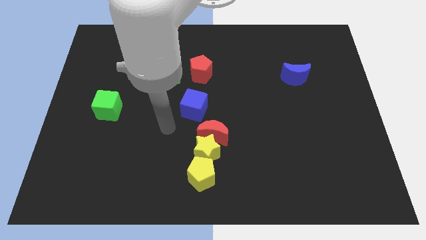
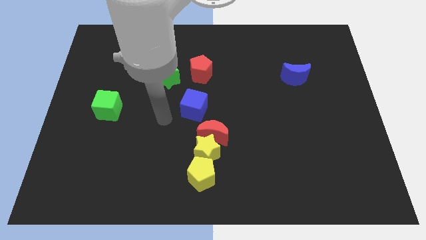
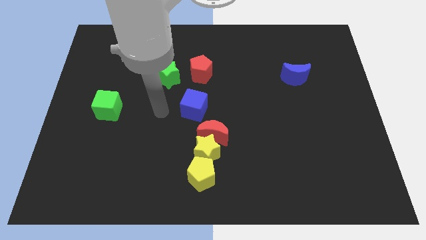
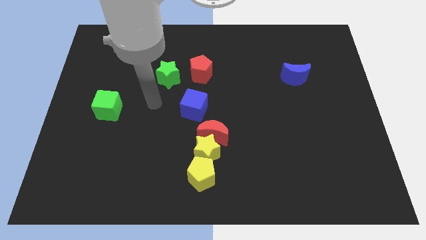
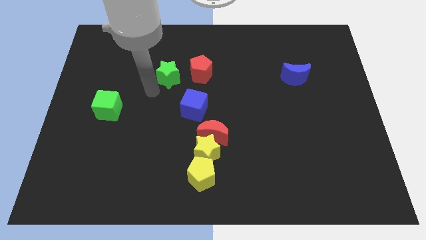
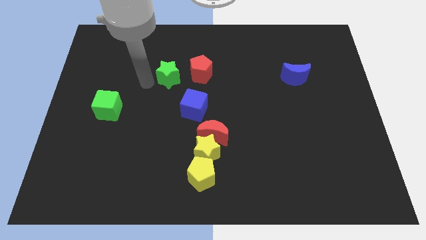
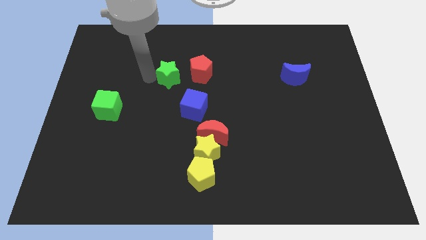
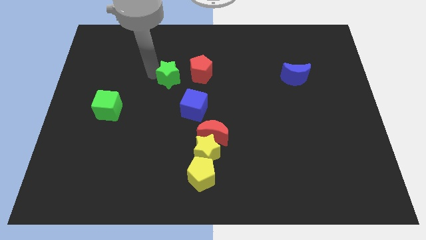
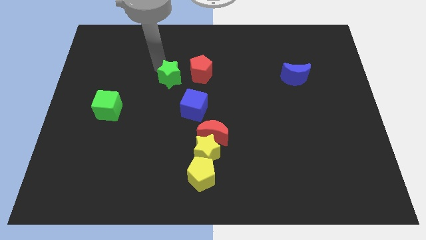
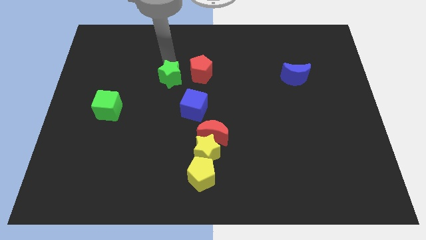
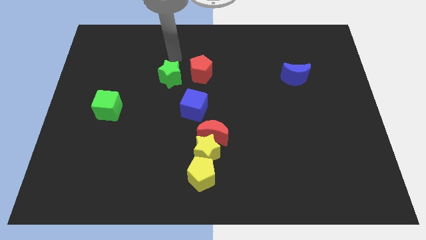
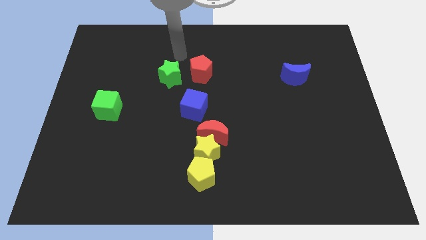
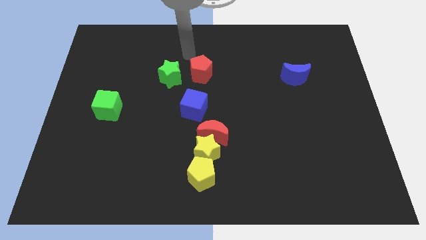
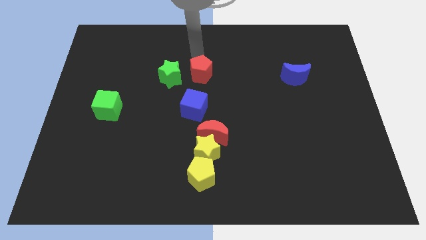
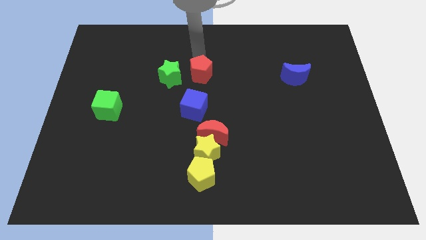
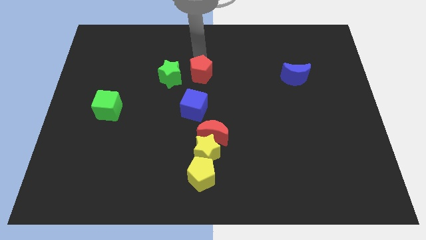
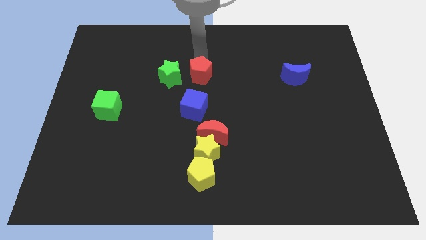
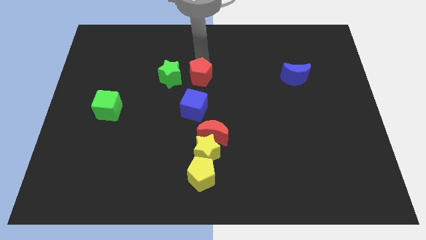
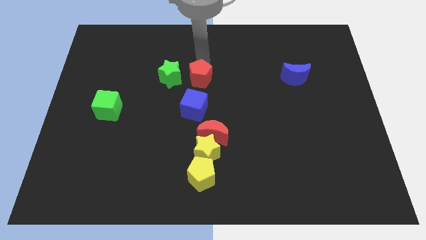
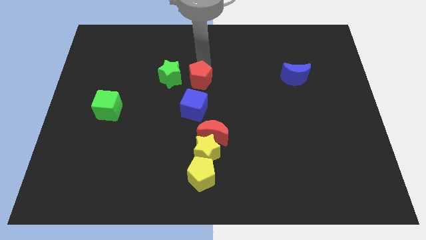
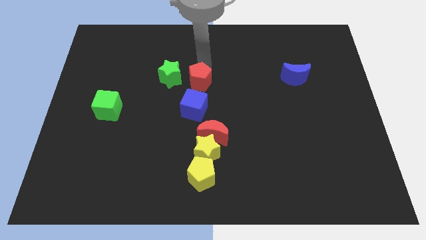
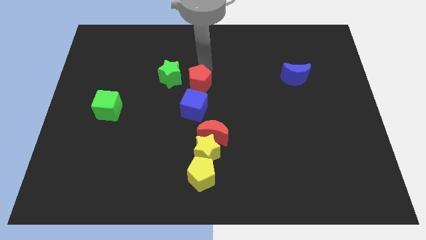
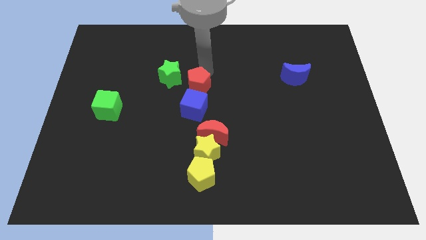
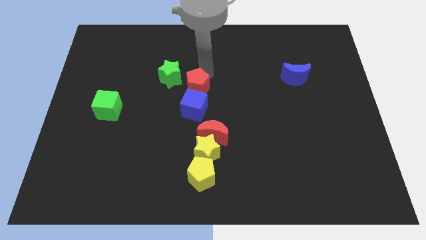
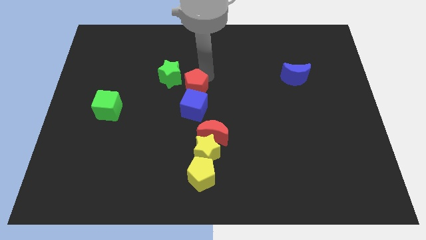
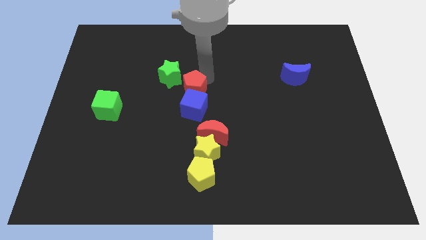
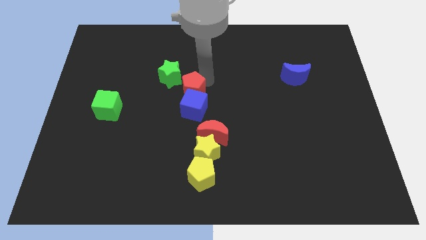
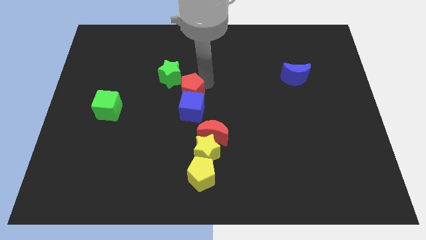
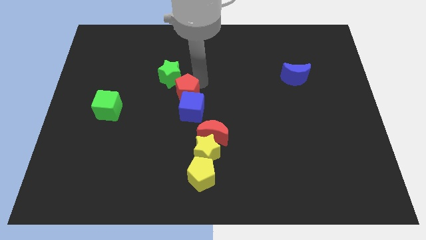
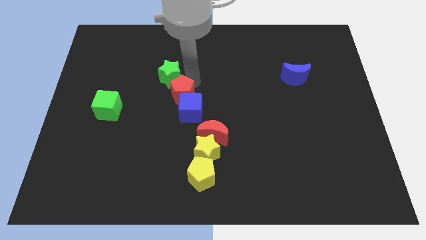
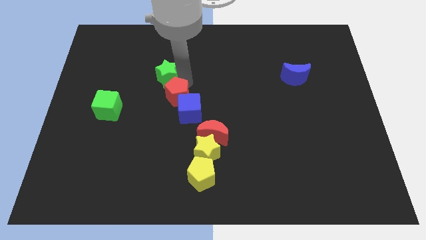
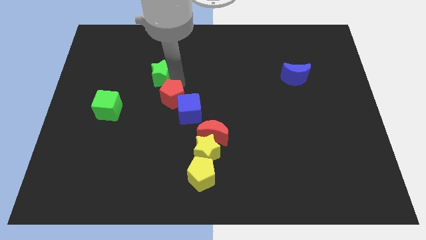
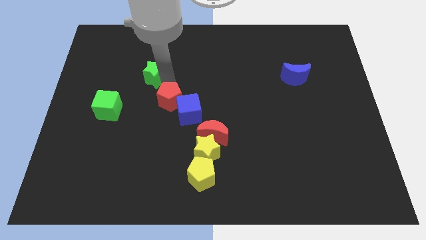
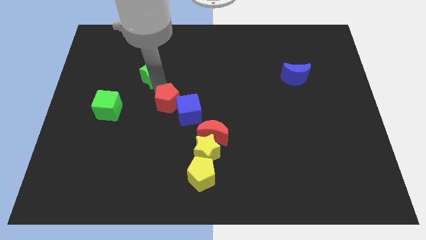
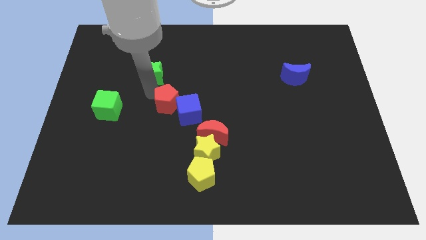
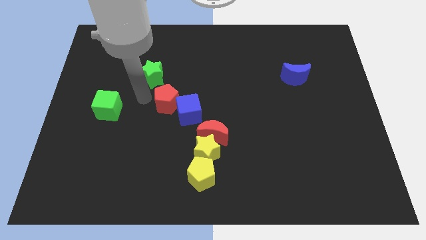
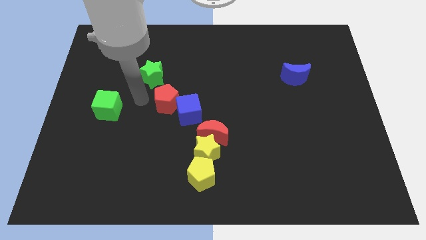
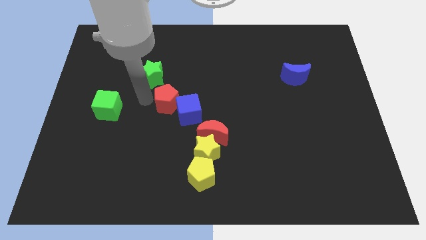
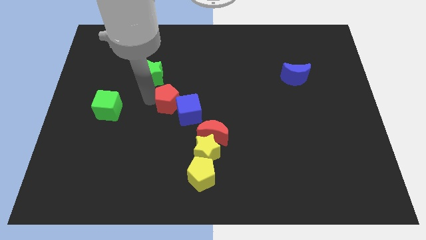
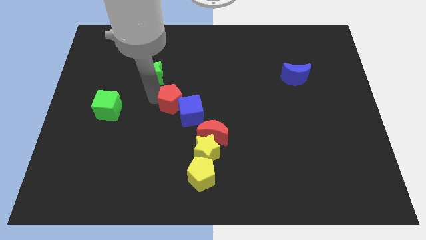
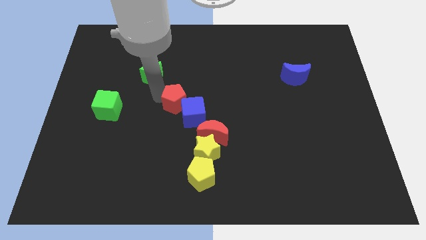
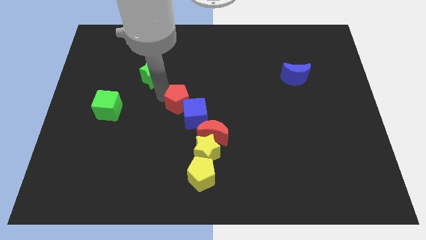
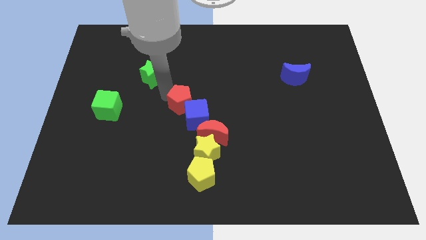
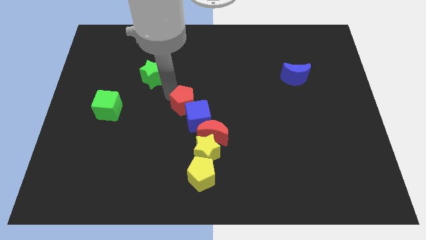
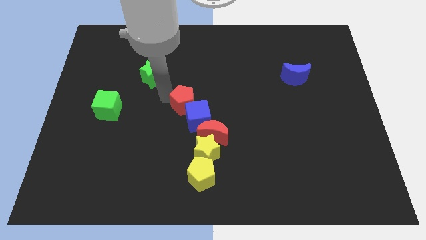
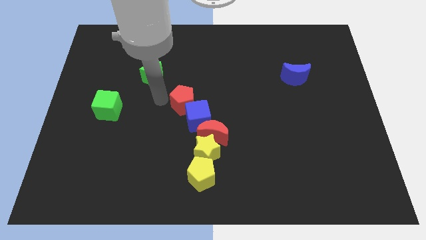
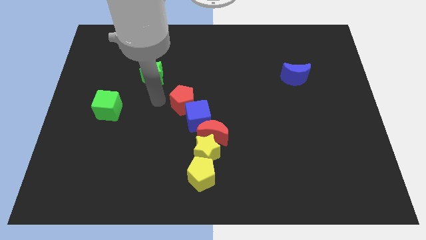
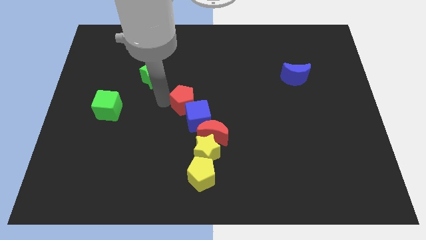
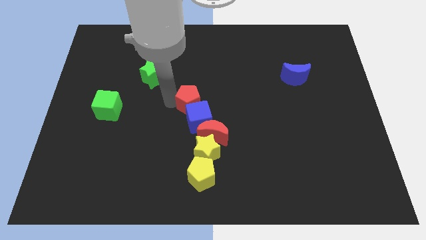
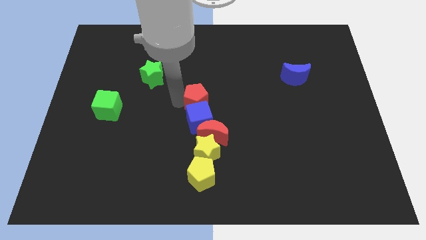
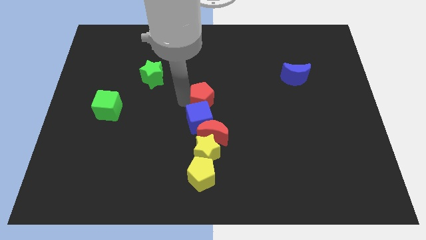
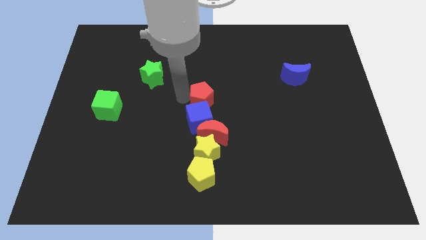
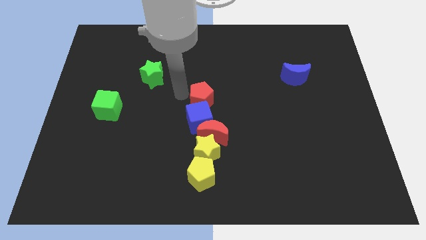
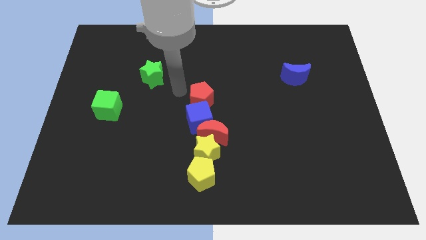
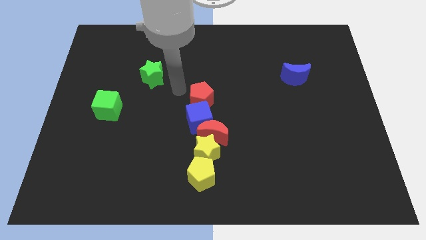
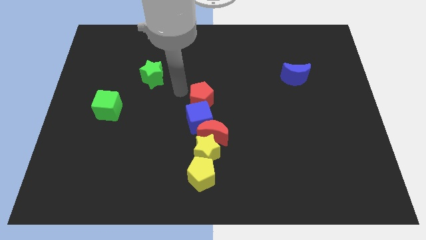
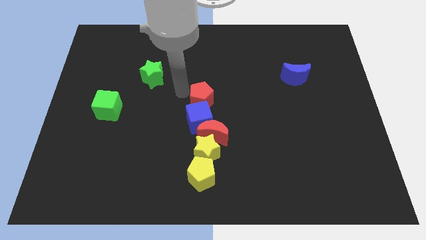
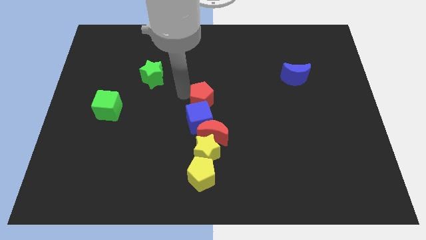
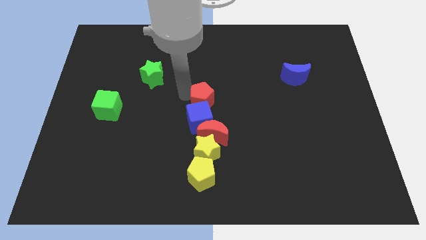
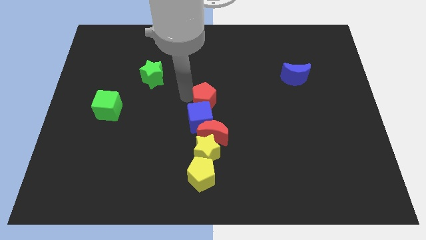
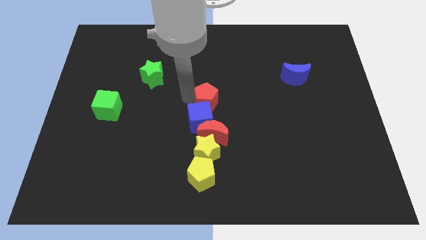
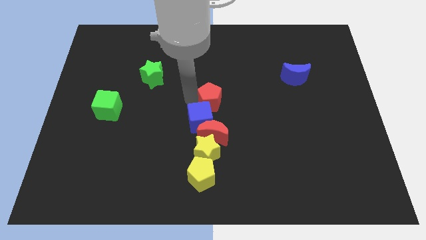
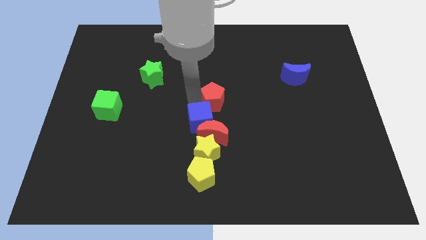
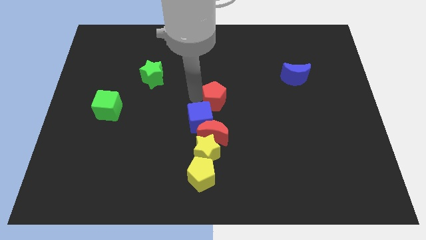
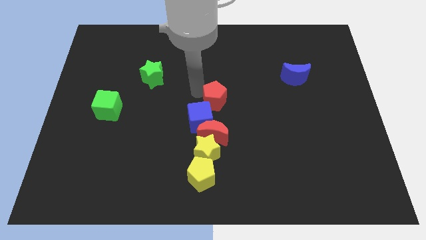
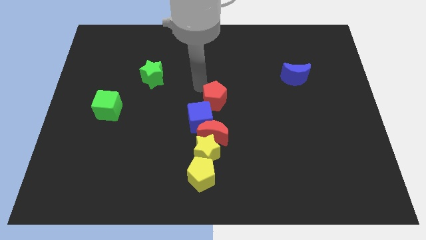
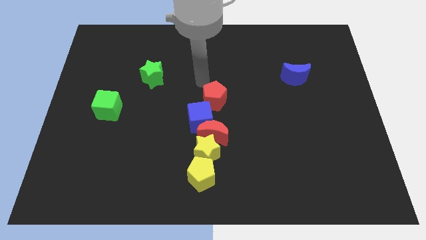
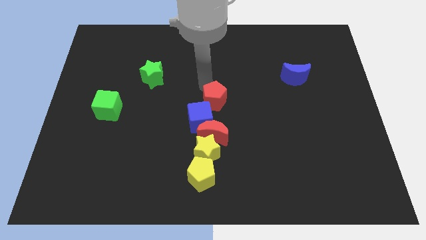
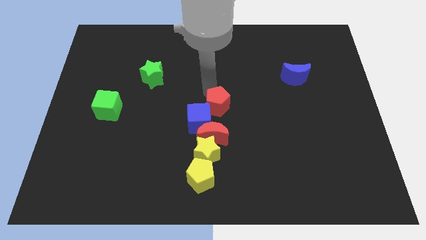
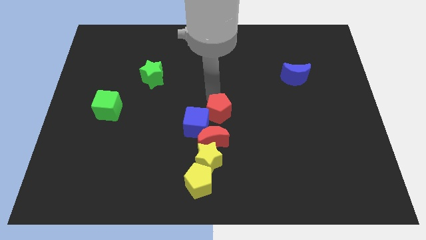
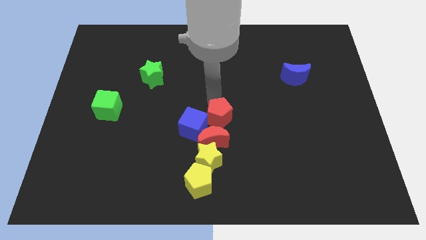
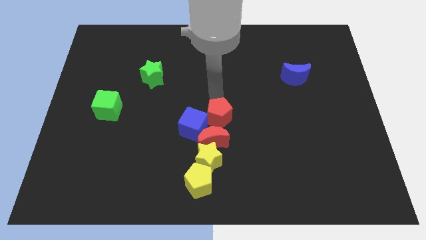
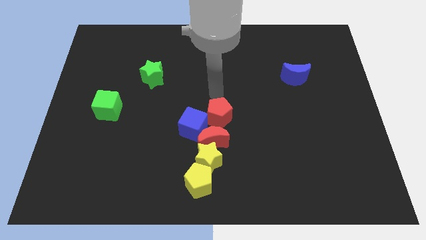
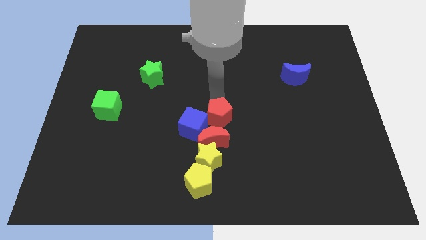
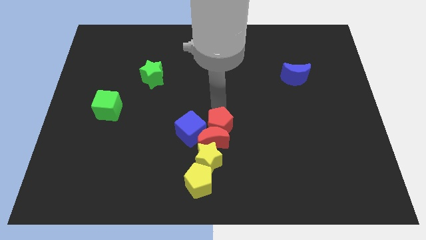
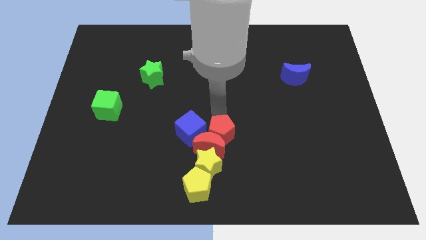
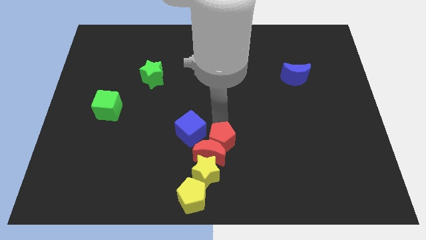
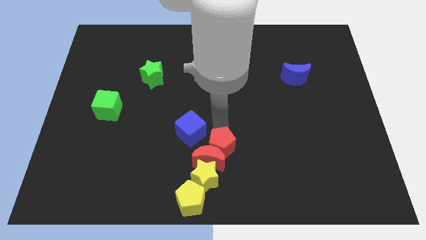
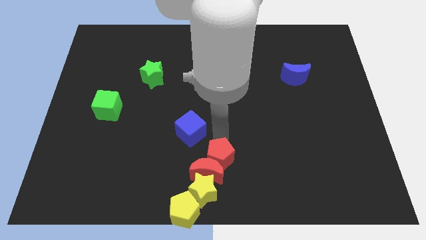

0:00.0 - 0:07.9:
slide the red pentagon to the bottom
